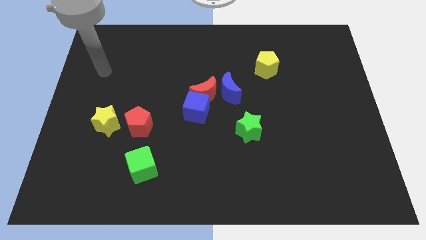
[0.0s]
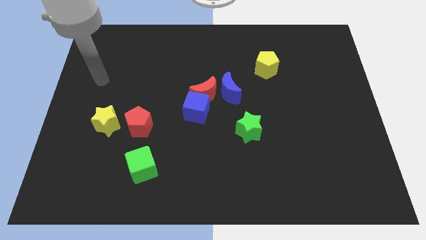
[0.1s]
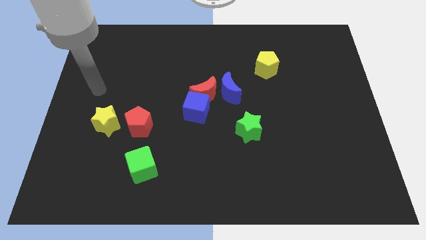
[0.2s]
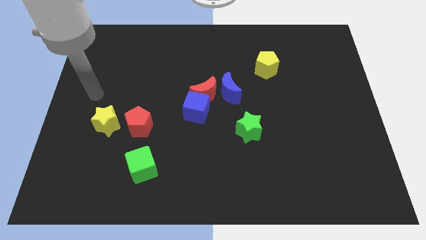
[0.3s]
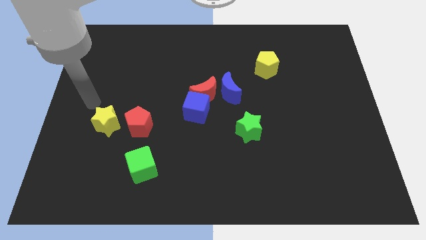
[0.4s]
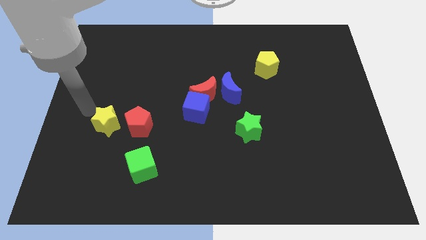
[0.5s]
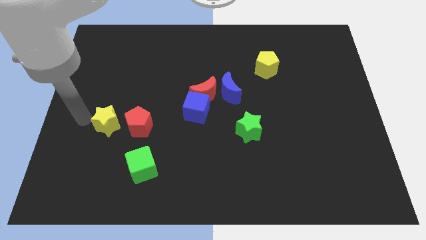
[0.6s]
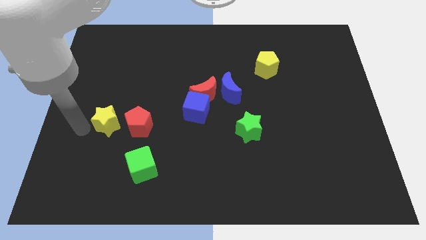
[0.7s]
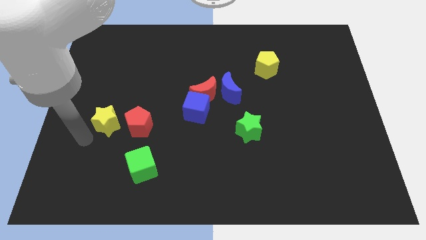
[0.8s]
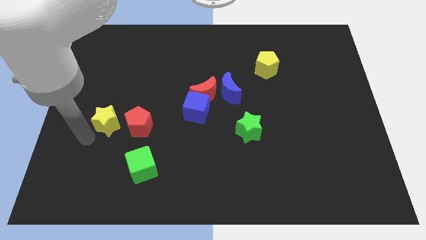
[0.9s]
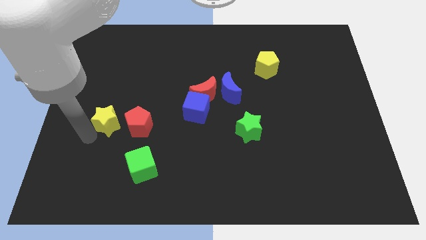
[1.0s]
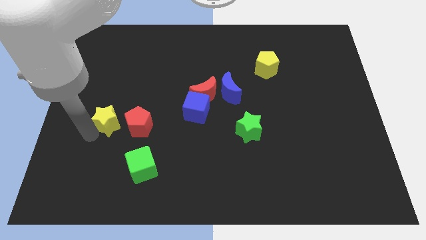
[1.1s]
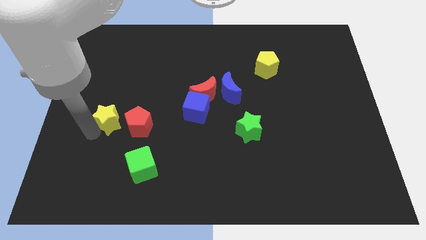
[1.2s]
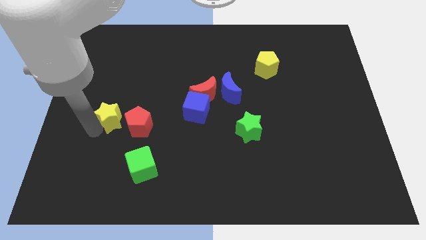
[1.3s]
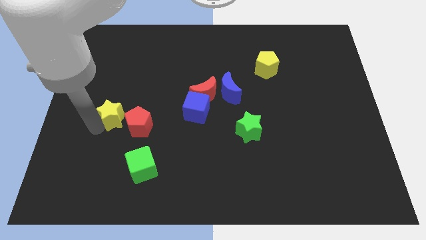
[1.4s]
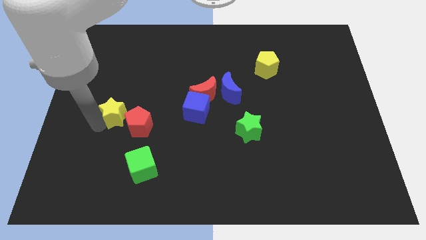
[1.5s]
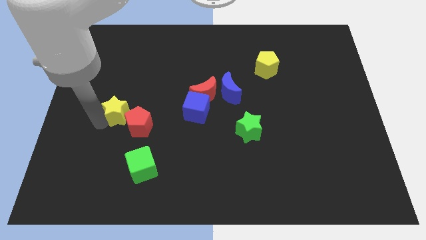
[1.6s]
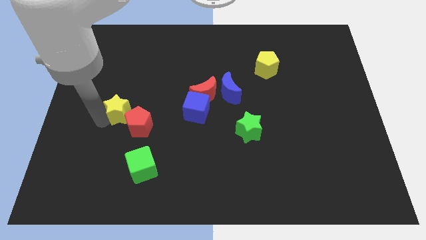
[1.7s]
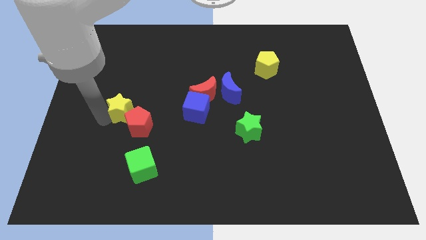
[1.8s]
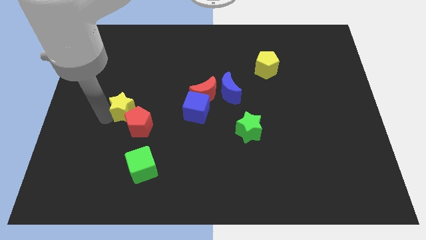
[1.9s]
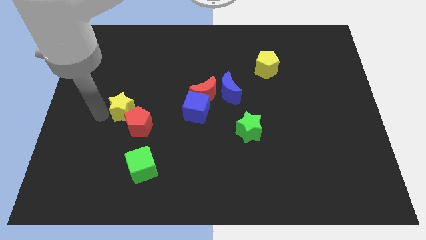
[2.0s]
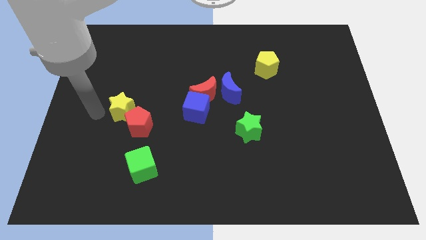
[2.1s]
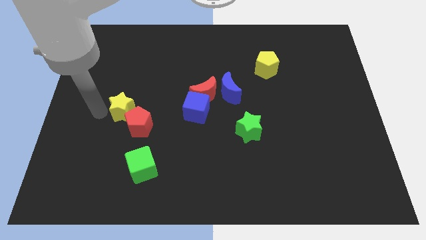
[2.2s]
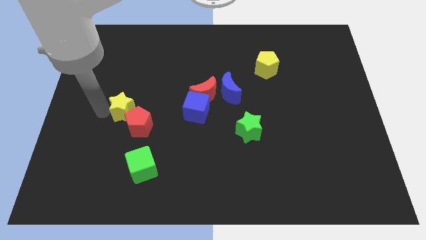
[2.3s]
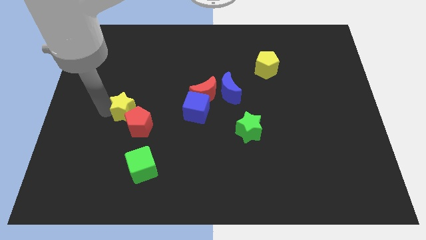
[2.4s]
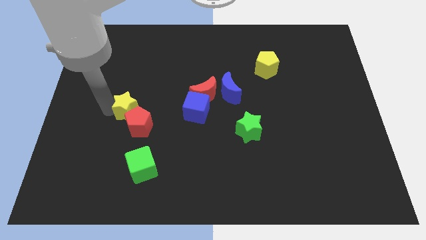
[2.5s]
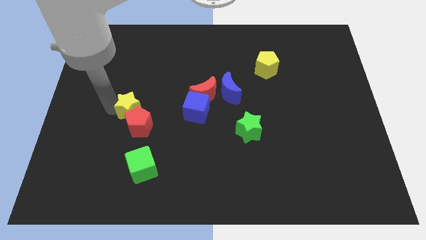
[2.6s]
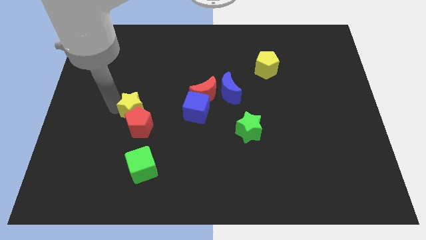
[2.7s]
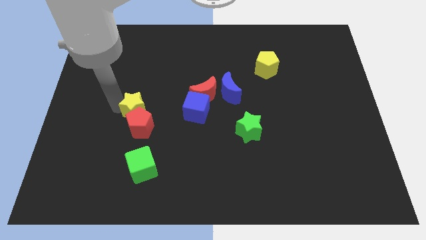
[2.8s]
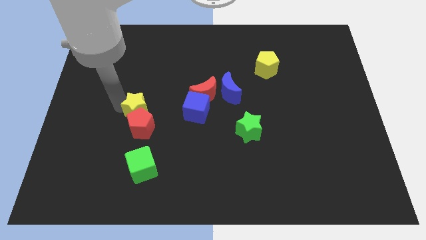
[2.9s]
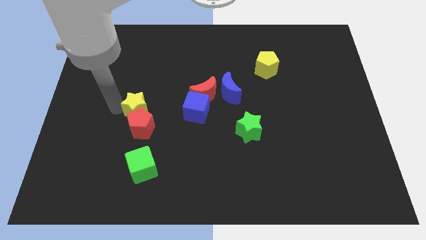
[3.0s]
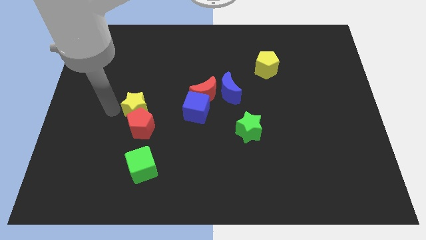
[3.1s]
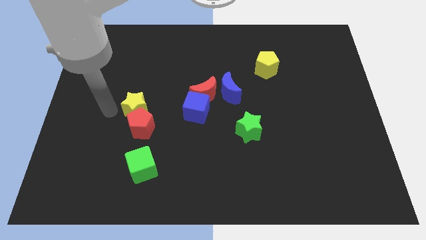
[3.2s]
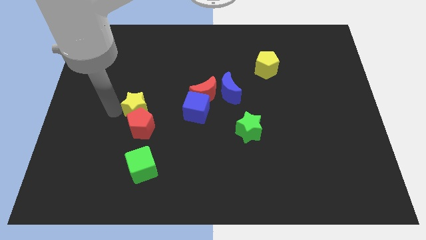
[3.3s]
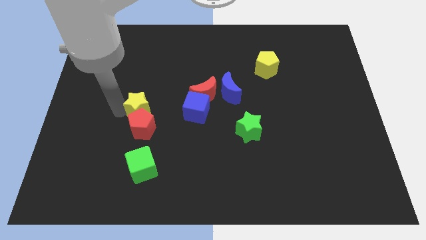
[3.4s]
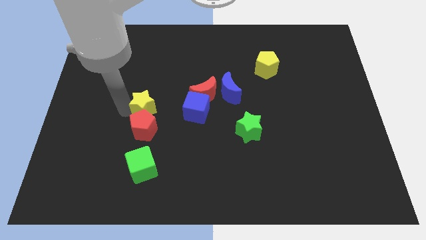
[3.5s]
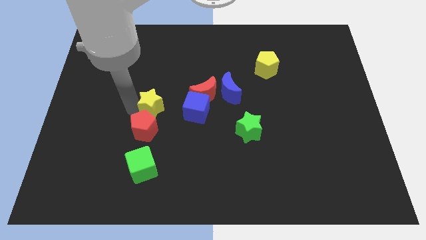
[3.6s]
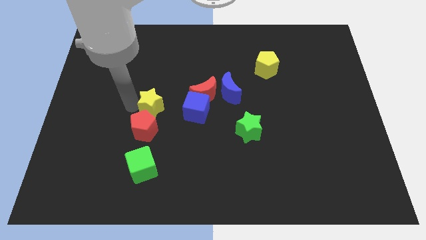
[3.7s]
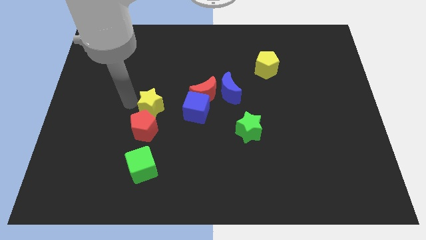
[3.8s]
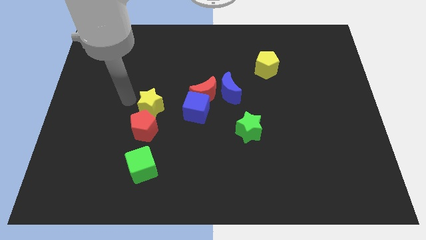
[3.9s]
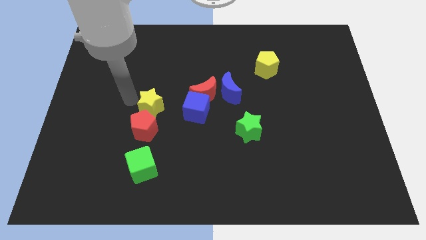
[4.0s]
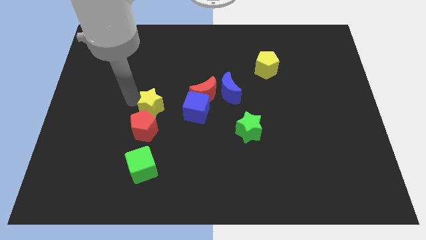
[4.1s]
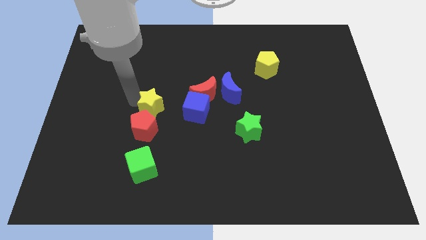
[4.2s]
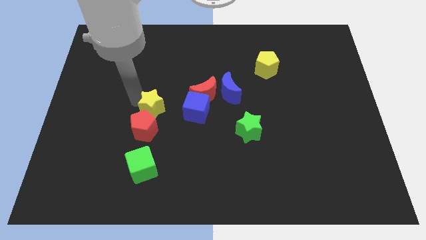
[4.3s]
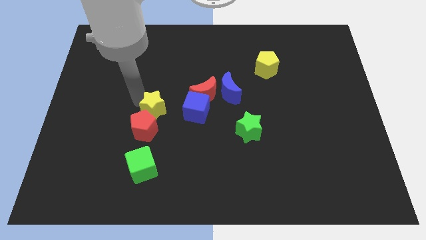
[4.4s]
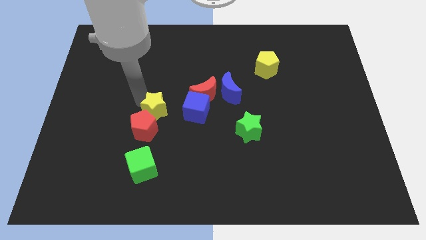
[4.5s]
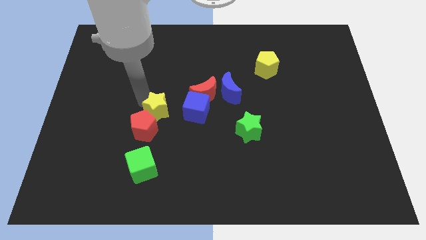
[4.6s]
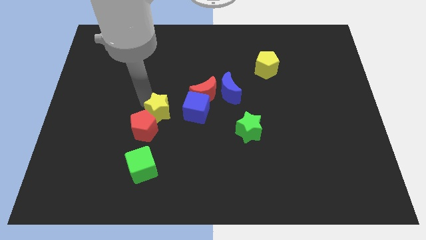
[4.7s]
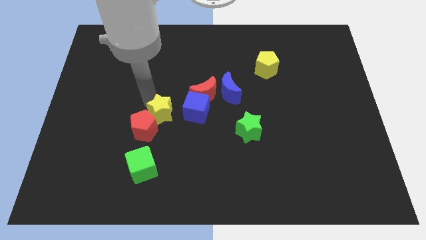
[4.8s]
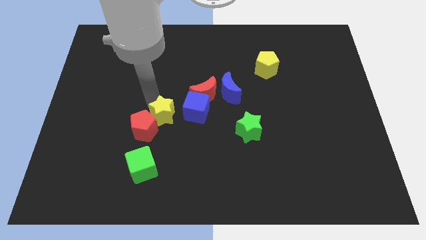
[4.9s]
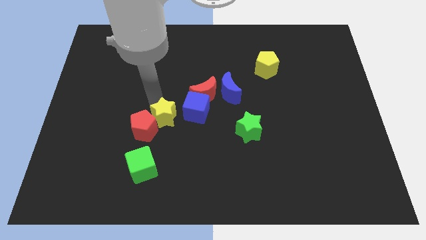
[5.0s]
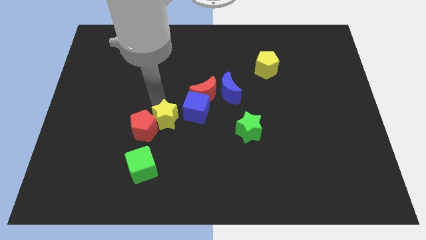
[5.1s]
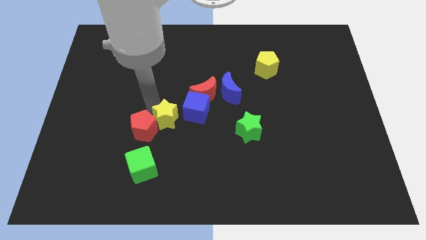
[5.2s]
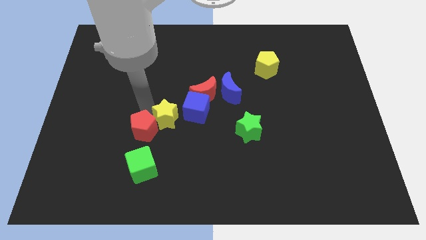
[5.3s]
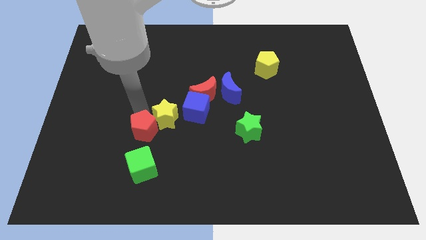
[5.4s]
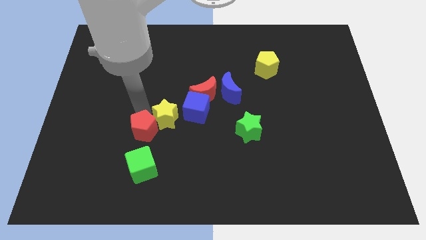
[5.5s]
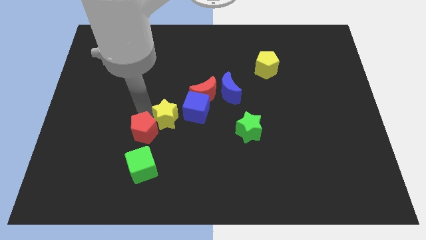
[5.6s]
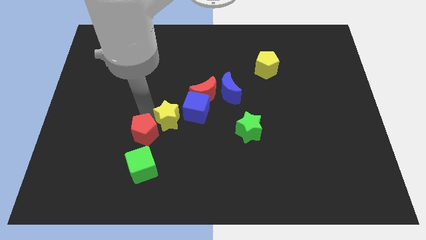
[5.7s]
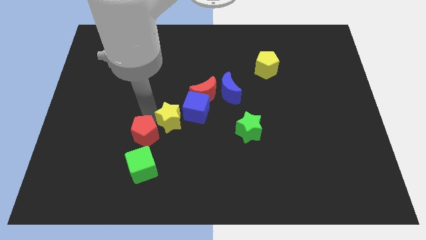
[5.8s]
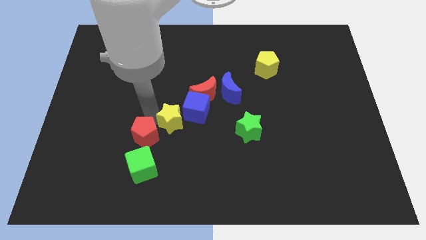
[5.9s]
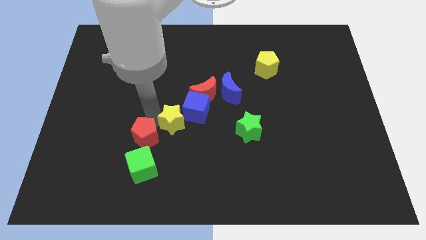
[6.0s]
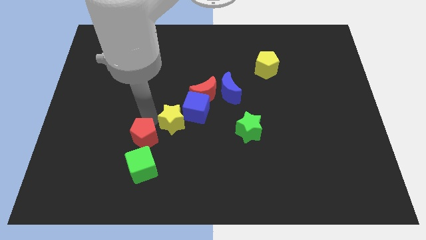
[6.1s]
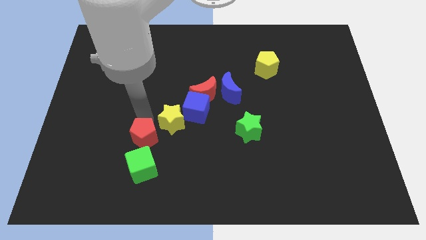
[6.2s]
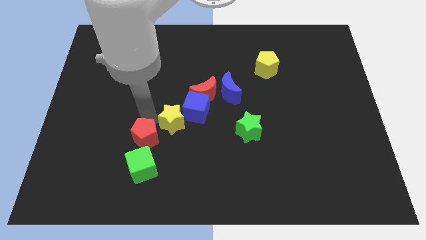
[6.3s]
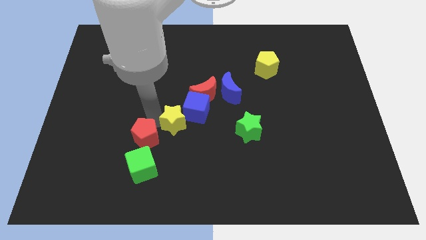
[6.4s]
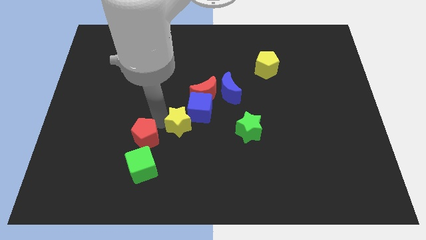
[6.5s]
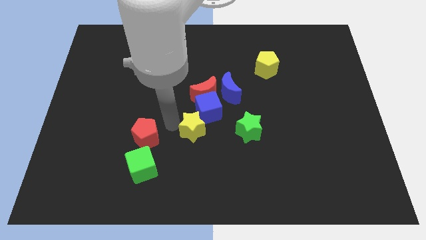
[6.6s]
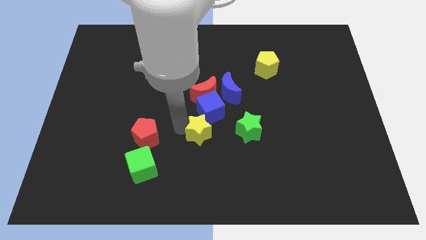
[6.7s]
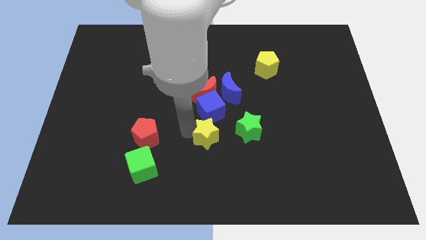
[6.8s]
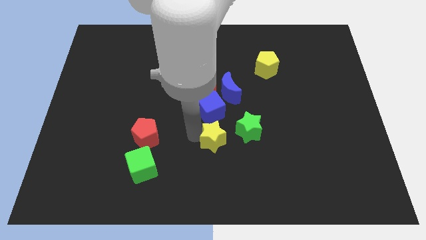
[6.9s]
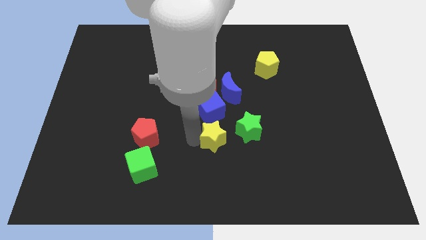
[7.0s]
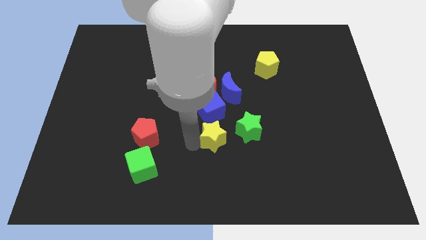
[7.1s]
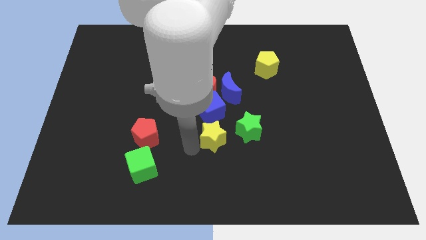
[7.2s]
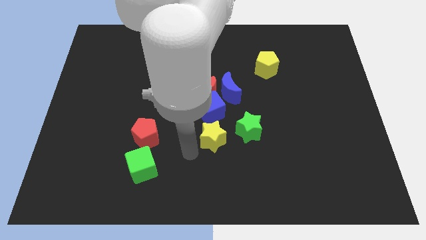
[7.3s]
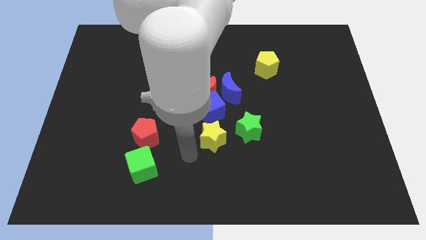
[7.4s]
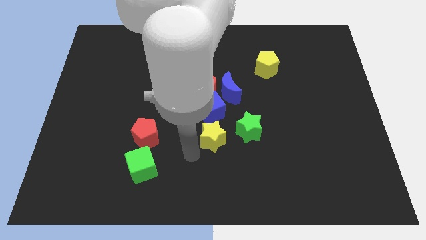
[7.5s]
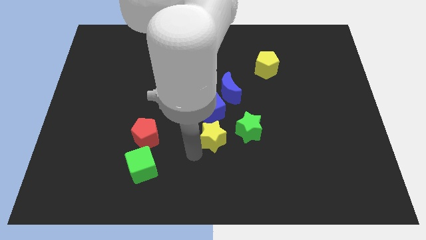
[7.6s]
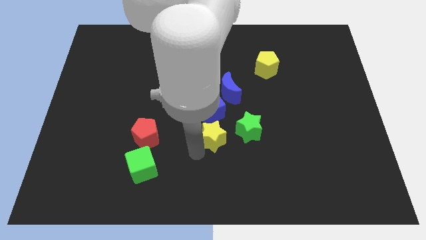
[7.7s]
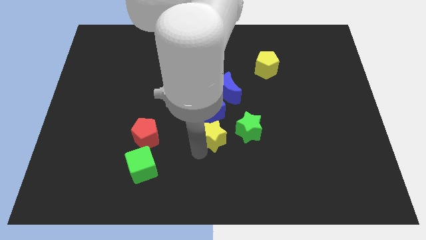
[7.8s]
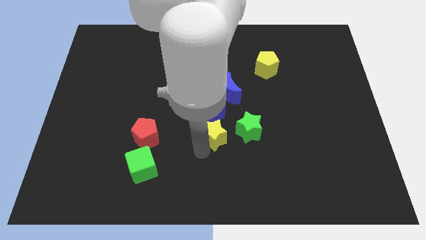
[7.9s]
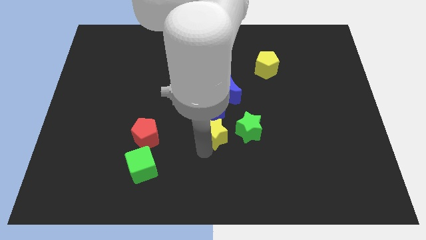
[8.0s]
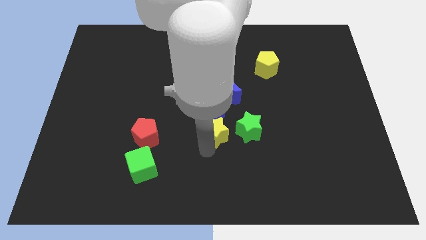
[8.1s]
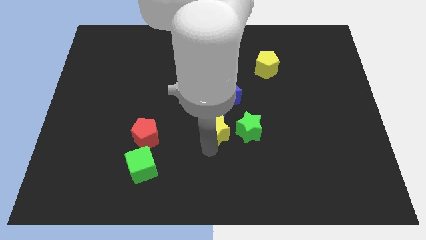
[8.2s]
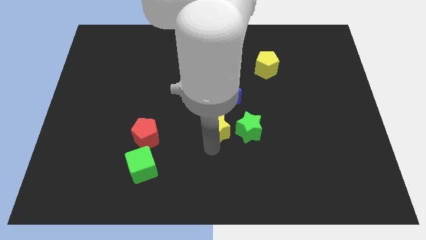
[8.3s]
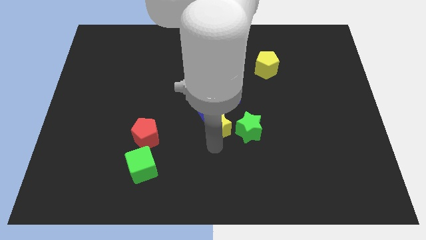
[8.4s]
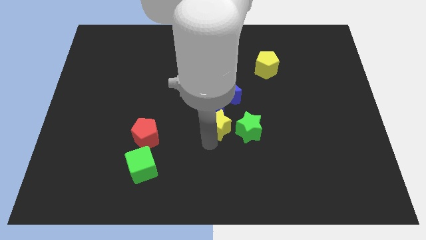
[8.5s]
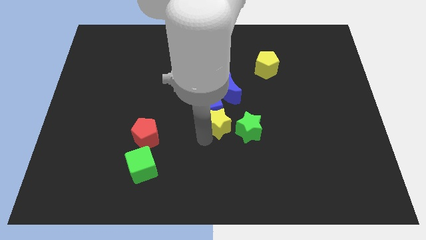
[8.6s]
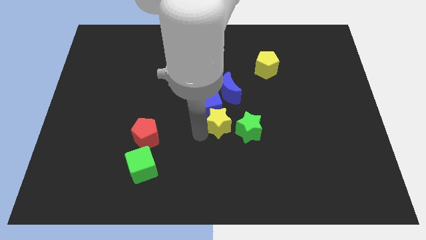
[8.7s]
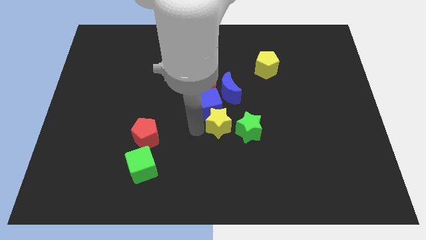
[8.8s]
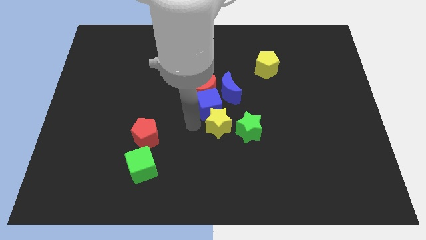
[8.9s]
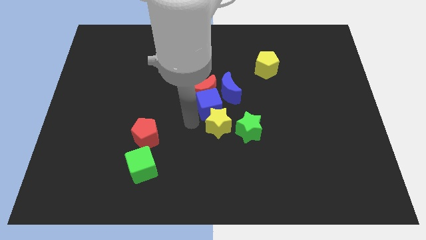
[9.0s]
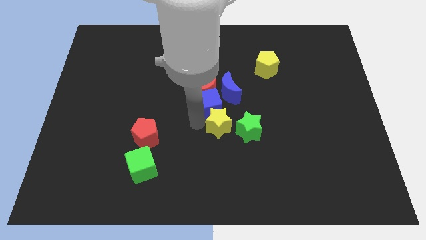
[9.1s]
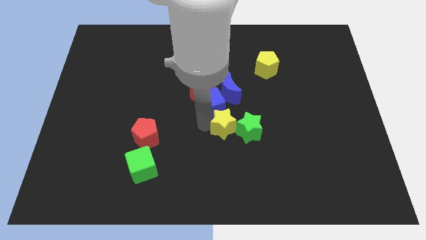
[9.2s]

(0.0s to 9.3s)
push the yellow star to the green star
